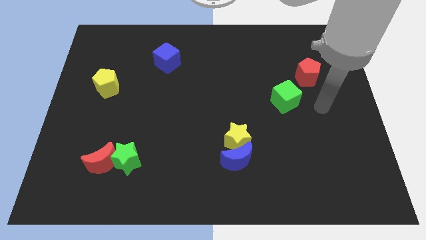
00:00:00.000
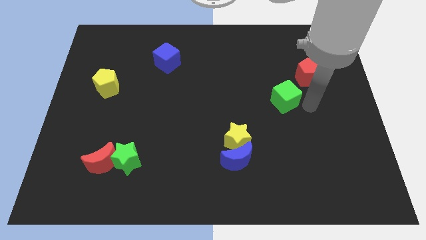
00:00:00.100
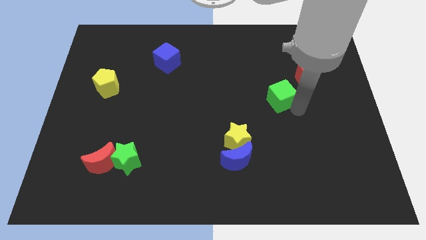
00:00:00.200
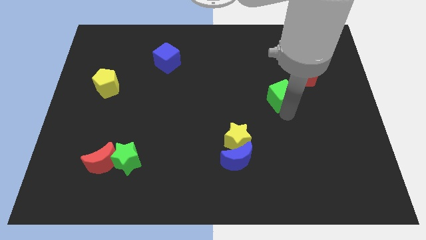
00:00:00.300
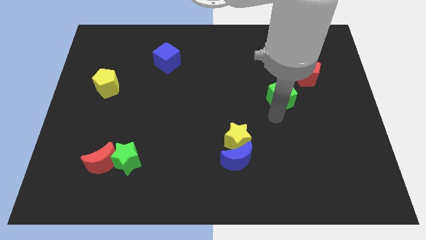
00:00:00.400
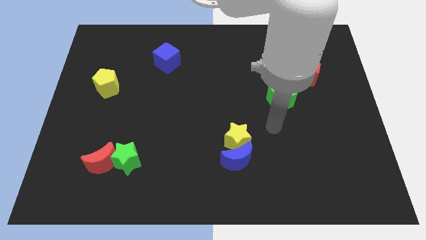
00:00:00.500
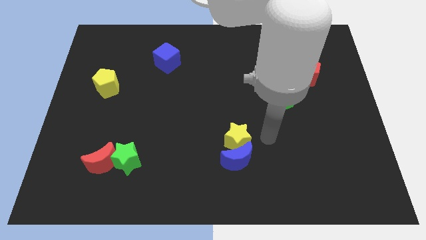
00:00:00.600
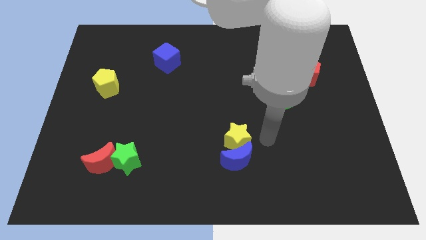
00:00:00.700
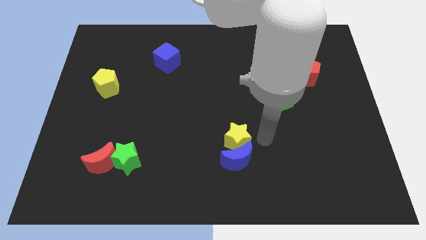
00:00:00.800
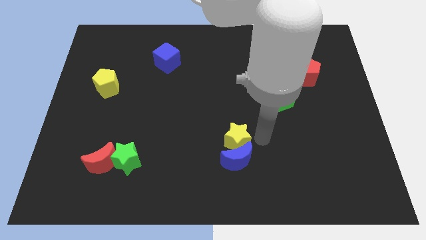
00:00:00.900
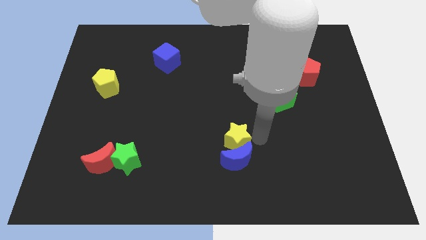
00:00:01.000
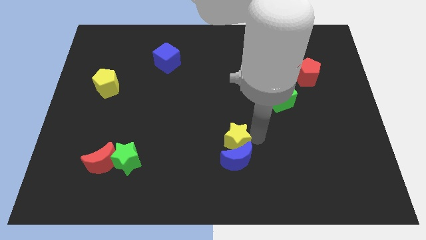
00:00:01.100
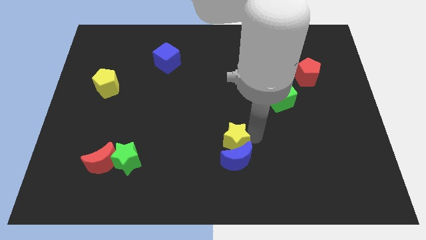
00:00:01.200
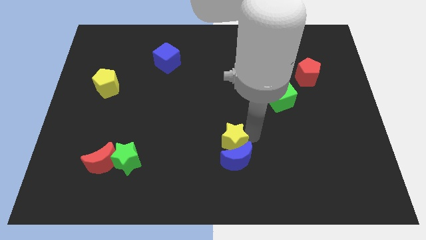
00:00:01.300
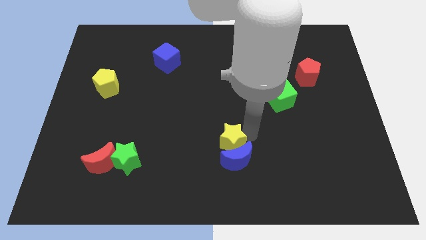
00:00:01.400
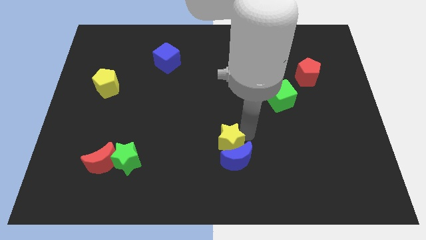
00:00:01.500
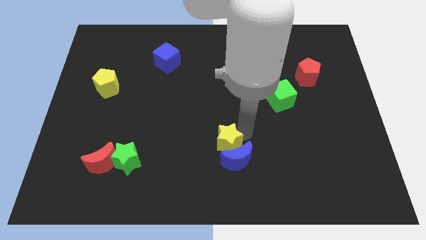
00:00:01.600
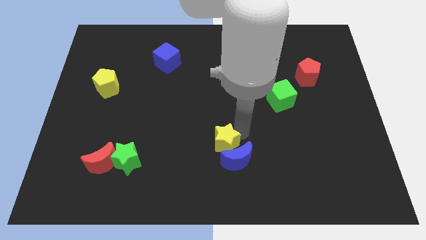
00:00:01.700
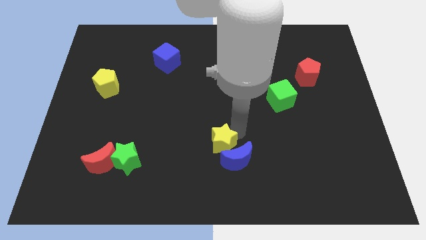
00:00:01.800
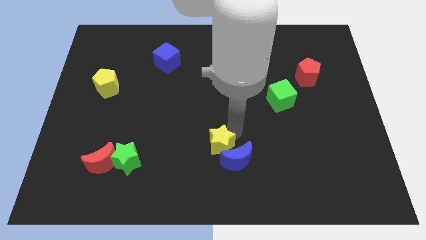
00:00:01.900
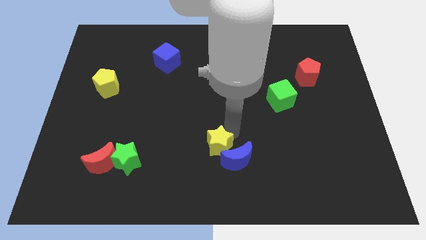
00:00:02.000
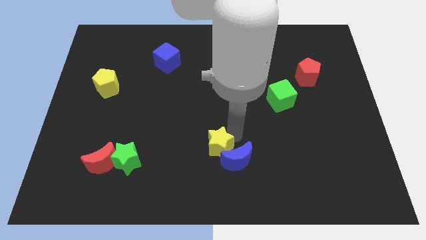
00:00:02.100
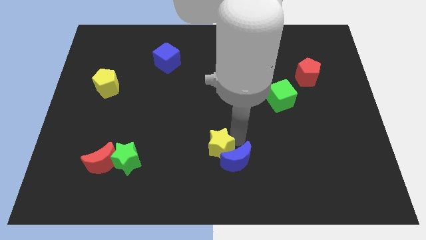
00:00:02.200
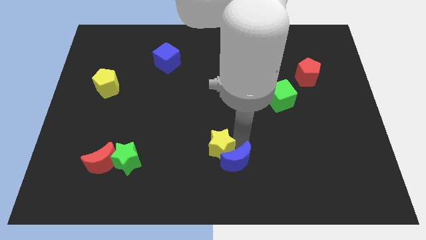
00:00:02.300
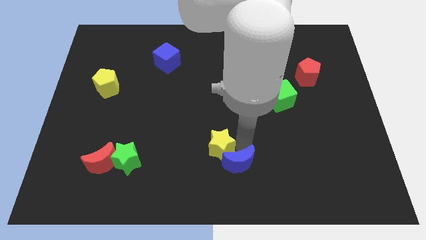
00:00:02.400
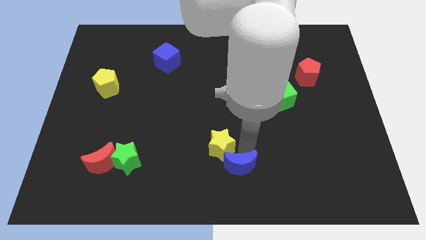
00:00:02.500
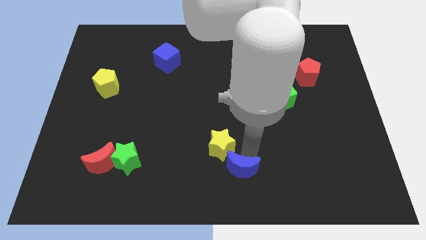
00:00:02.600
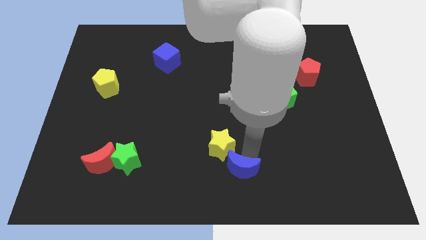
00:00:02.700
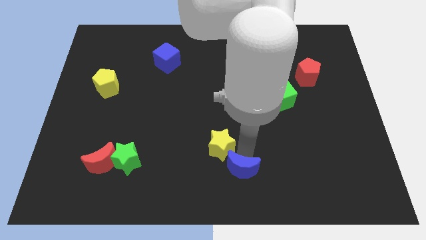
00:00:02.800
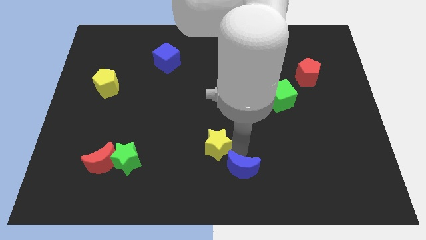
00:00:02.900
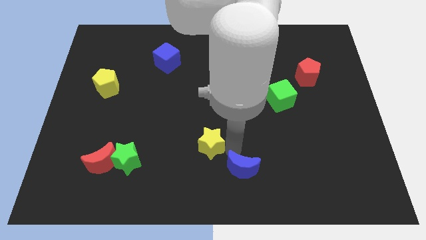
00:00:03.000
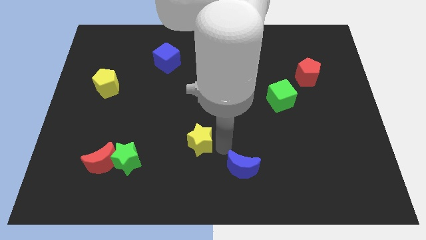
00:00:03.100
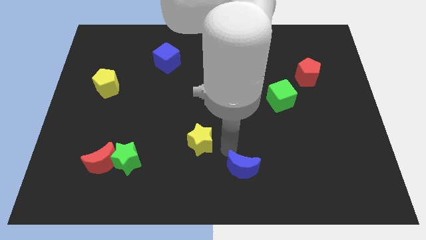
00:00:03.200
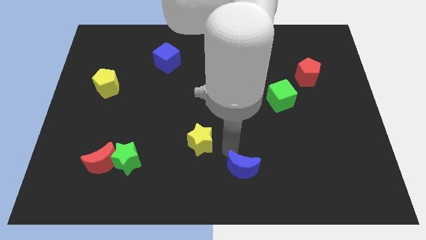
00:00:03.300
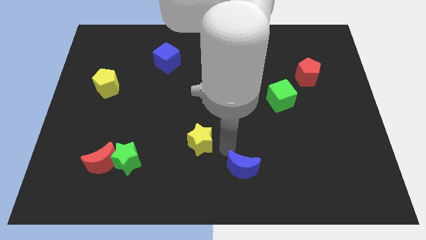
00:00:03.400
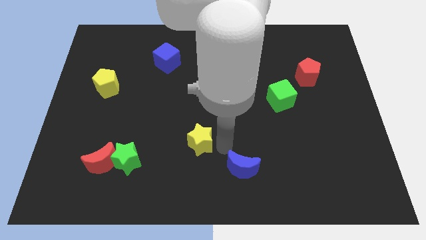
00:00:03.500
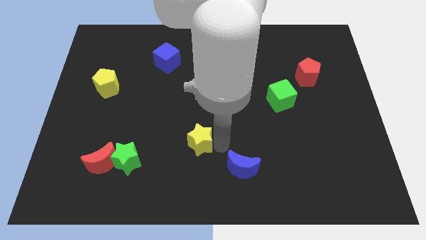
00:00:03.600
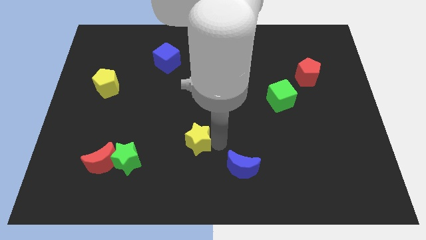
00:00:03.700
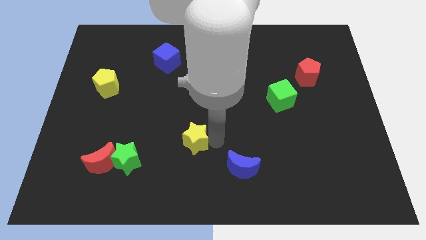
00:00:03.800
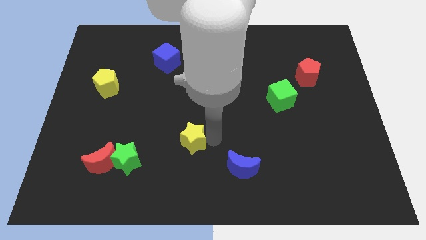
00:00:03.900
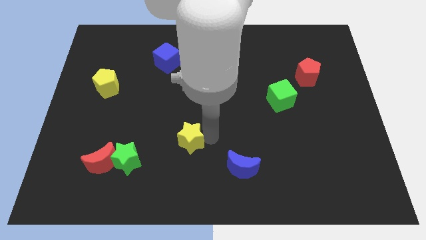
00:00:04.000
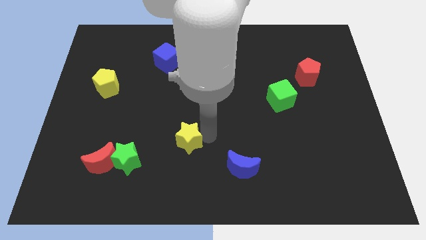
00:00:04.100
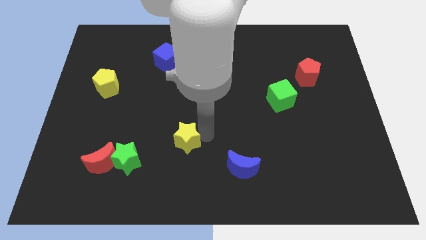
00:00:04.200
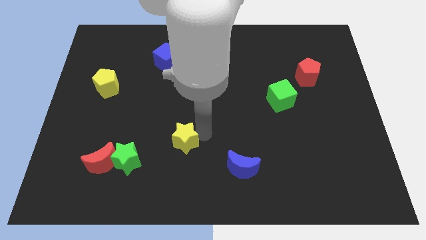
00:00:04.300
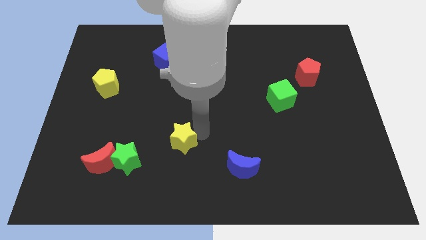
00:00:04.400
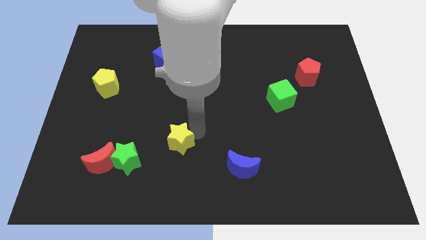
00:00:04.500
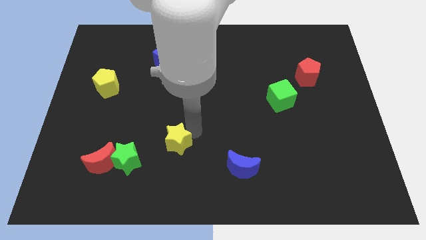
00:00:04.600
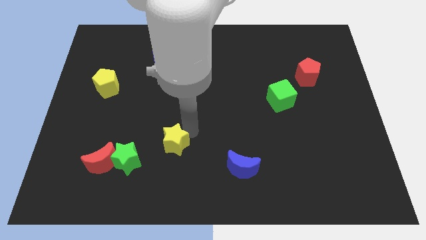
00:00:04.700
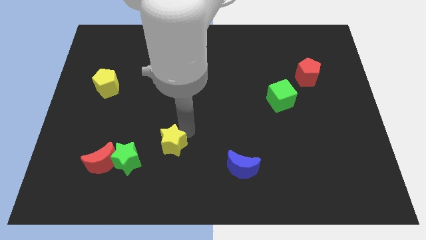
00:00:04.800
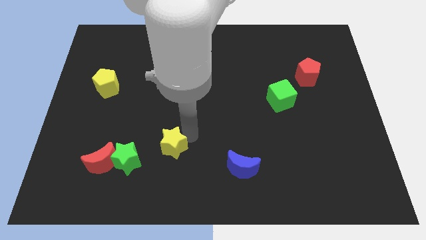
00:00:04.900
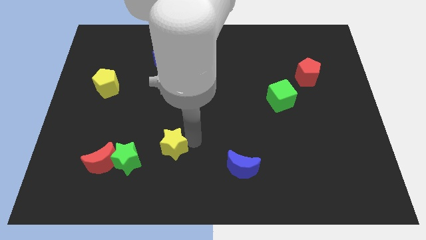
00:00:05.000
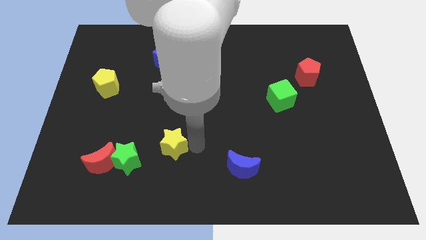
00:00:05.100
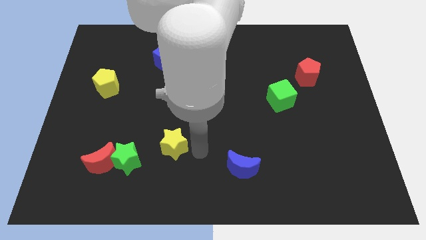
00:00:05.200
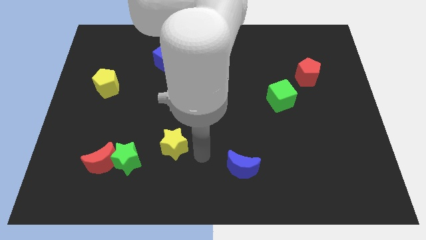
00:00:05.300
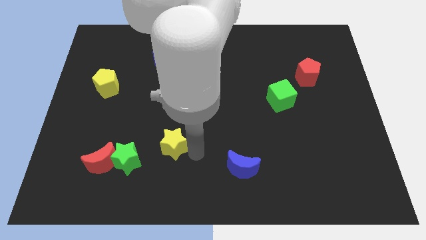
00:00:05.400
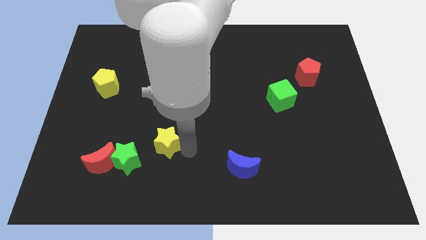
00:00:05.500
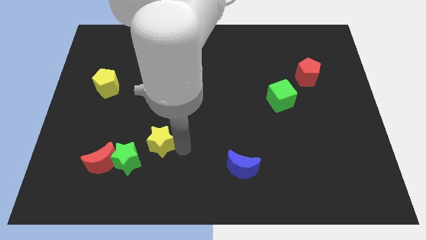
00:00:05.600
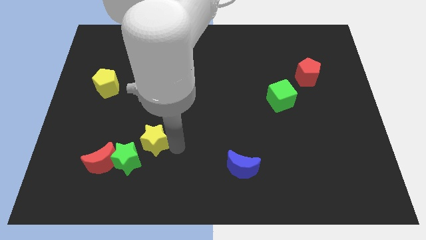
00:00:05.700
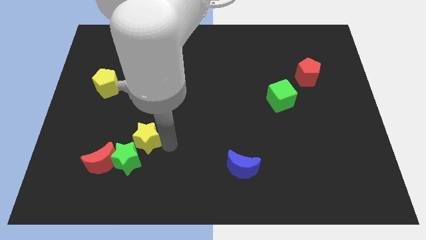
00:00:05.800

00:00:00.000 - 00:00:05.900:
move the yellow star left

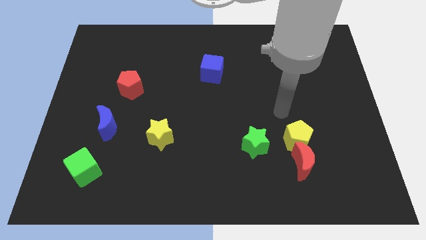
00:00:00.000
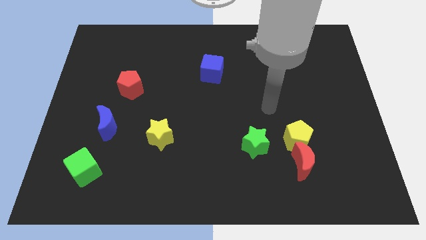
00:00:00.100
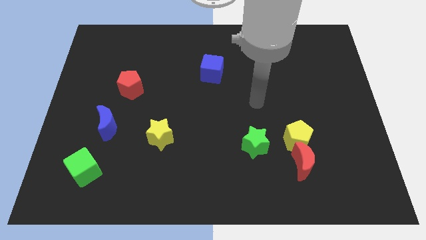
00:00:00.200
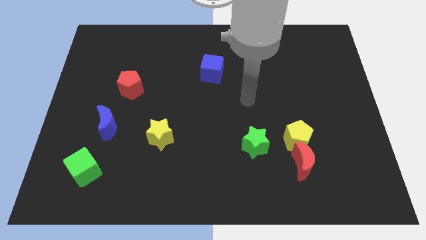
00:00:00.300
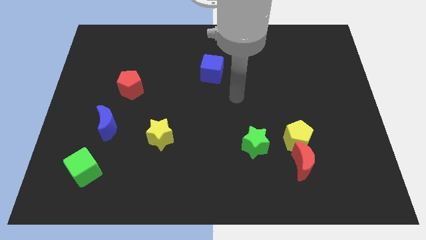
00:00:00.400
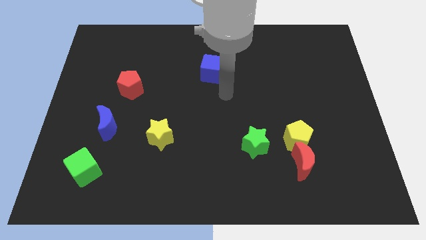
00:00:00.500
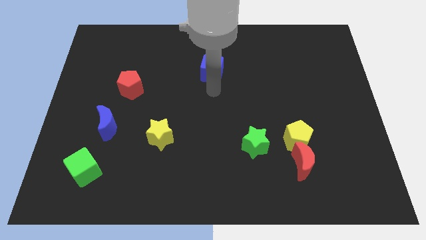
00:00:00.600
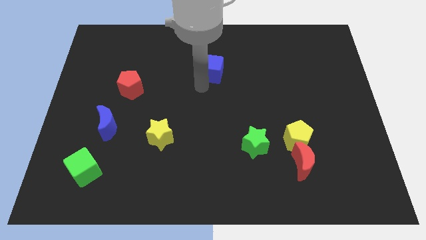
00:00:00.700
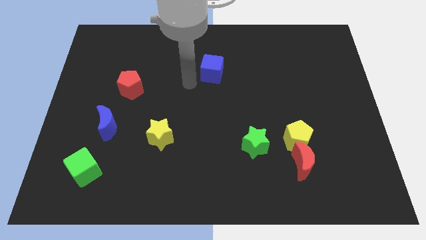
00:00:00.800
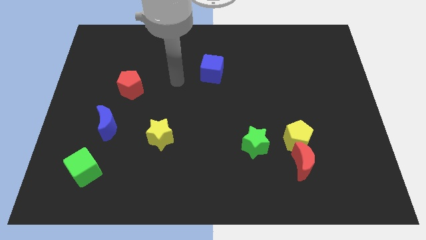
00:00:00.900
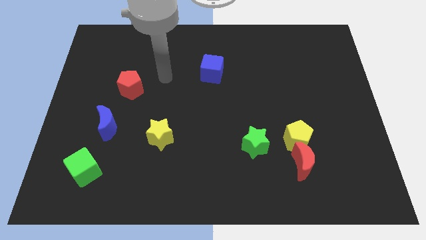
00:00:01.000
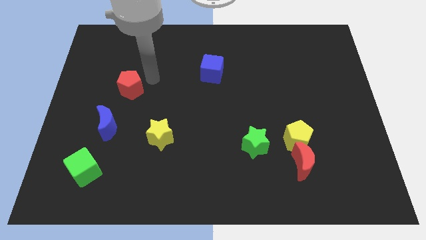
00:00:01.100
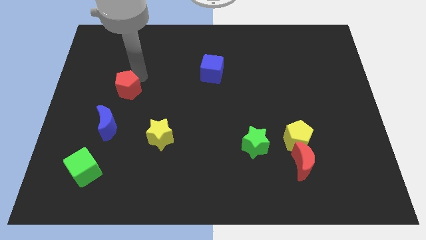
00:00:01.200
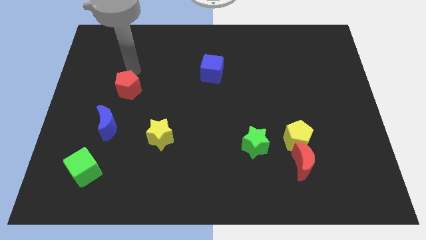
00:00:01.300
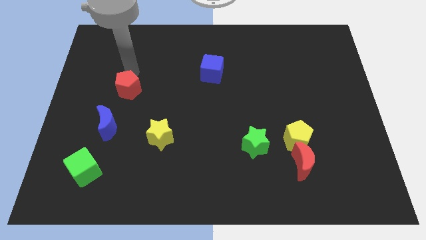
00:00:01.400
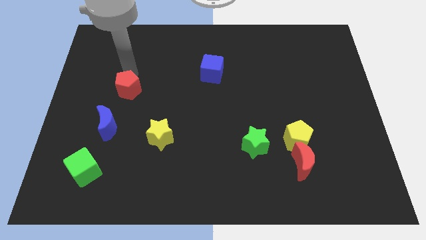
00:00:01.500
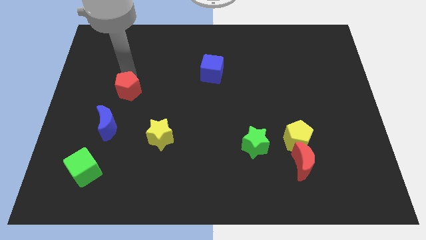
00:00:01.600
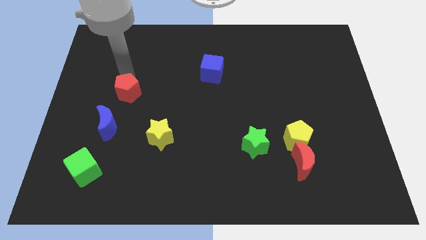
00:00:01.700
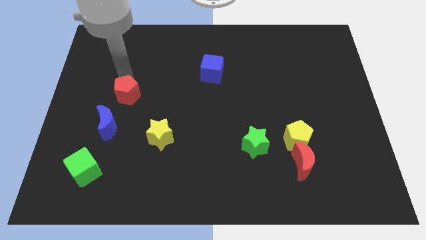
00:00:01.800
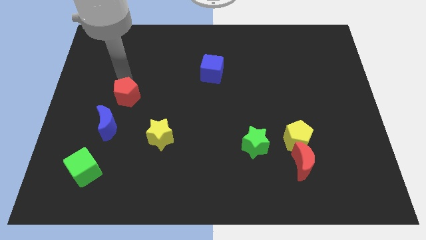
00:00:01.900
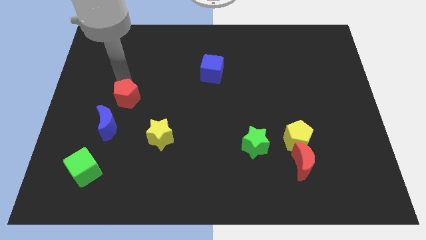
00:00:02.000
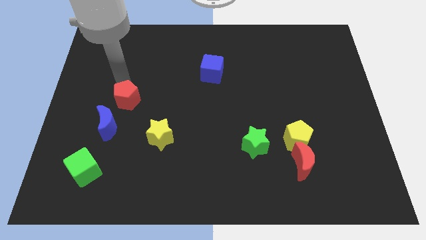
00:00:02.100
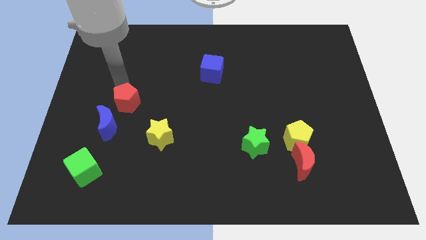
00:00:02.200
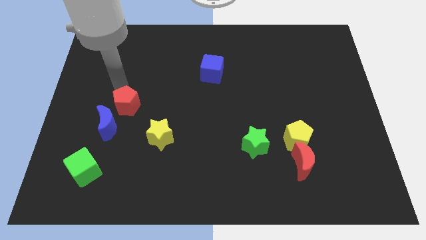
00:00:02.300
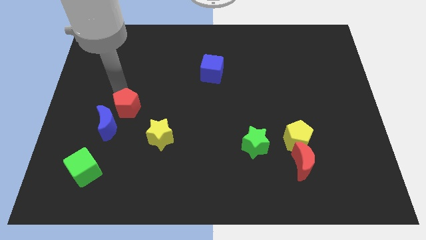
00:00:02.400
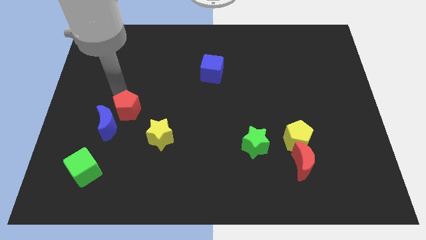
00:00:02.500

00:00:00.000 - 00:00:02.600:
move the red pentagon slightly downwards
